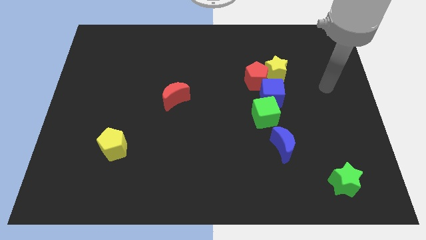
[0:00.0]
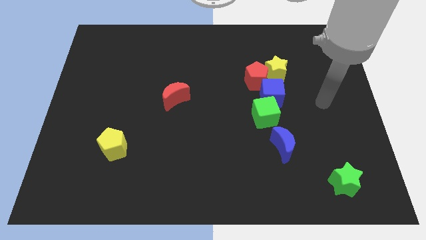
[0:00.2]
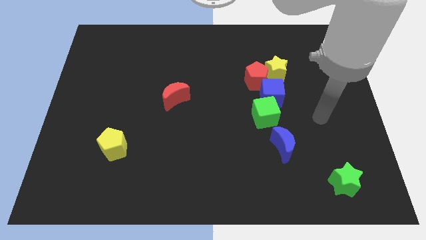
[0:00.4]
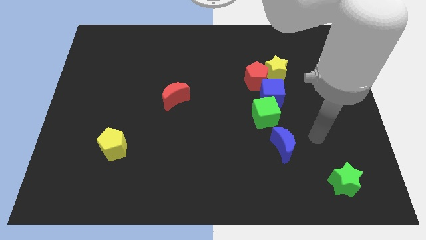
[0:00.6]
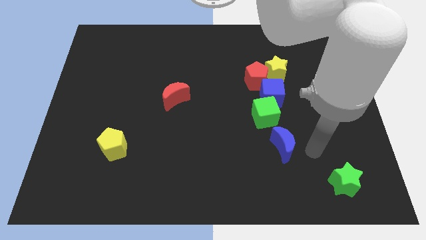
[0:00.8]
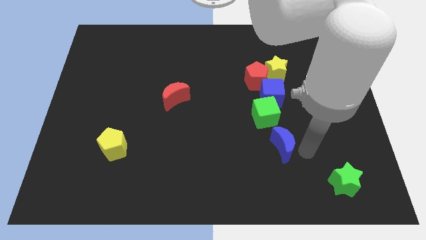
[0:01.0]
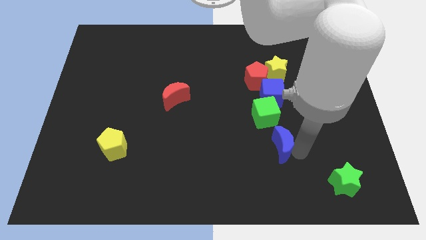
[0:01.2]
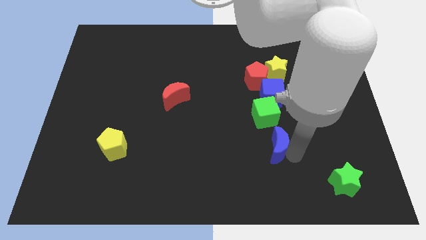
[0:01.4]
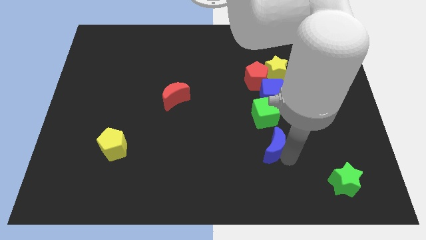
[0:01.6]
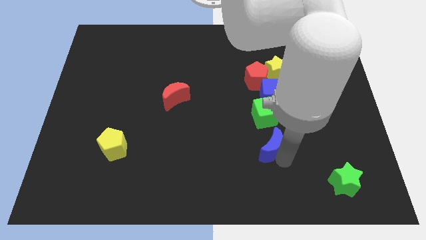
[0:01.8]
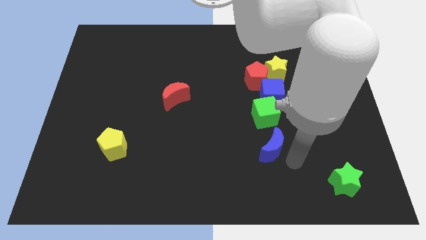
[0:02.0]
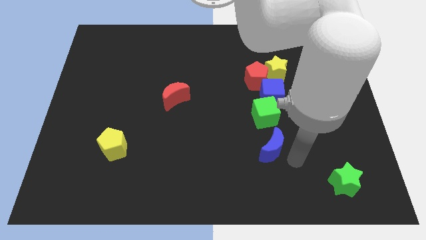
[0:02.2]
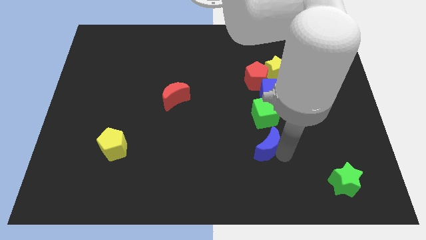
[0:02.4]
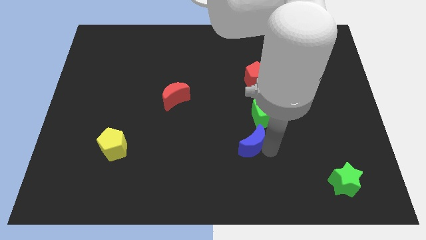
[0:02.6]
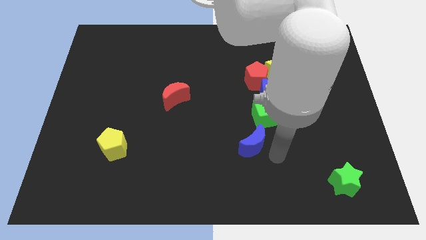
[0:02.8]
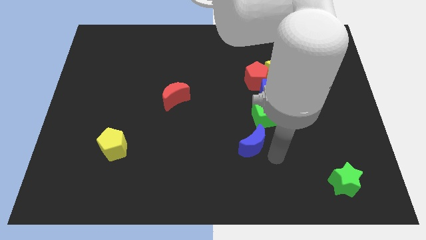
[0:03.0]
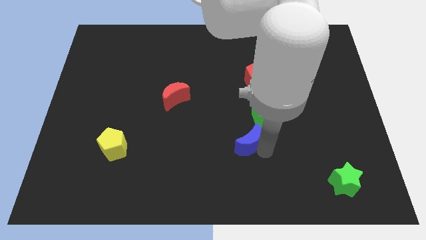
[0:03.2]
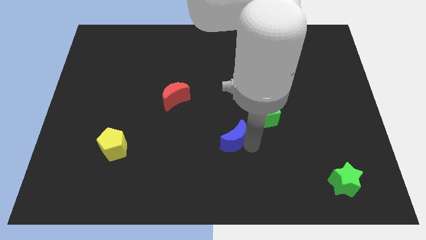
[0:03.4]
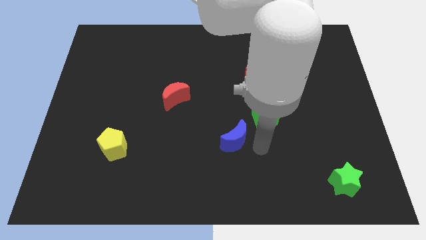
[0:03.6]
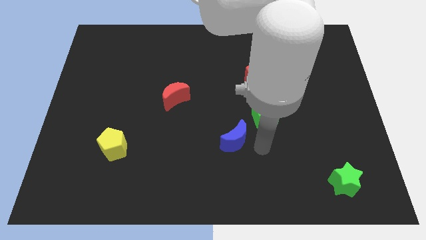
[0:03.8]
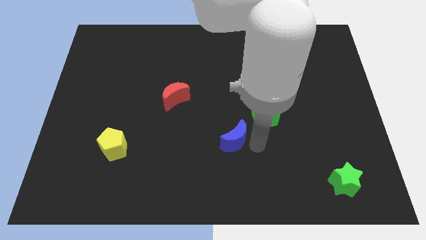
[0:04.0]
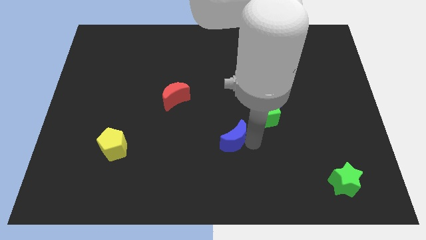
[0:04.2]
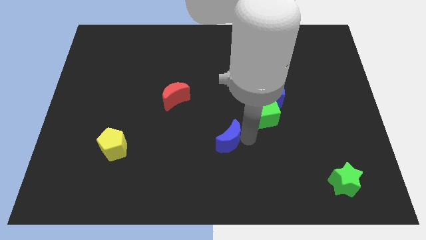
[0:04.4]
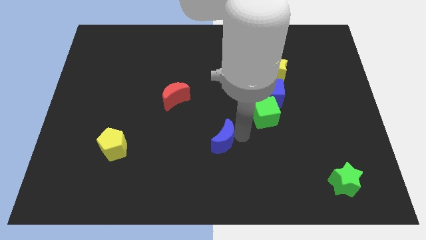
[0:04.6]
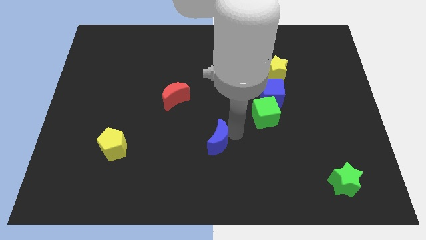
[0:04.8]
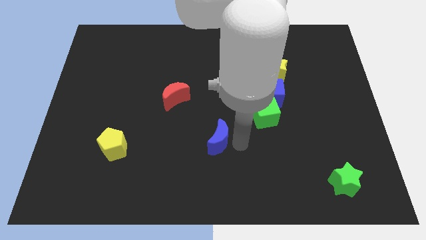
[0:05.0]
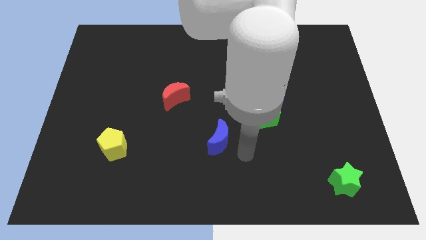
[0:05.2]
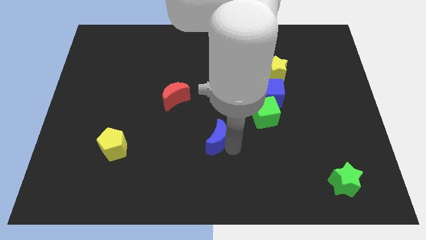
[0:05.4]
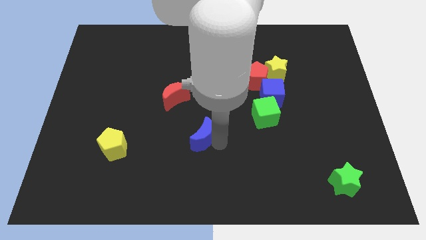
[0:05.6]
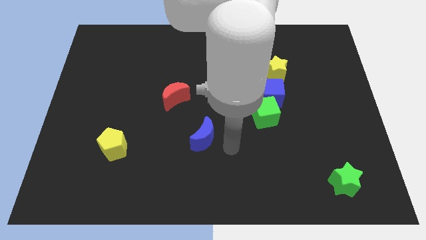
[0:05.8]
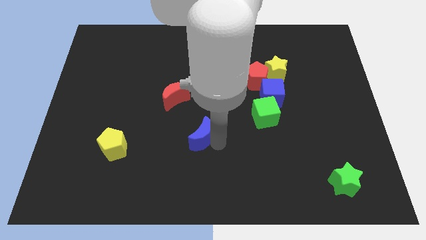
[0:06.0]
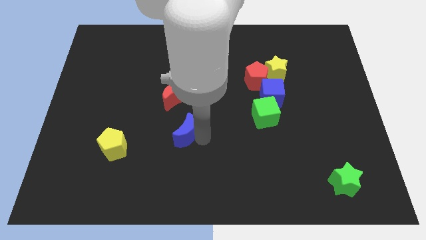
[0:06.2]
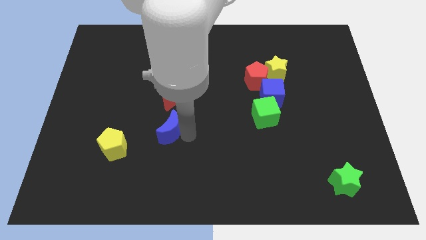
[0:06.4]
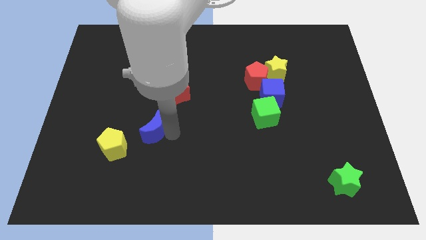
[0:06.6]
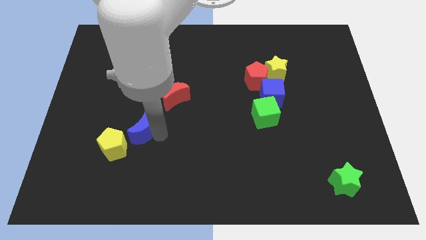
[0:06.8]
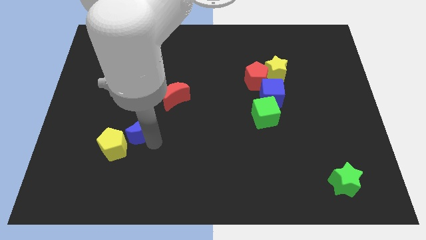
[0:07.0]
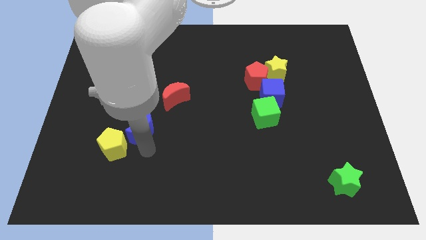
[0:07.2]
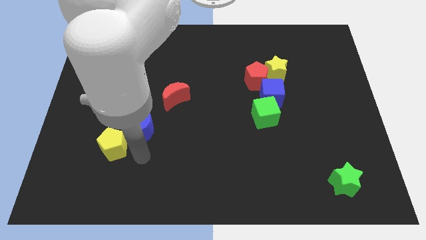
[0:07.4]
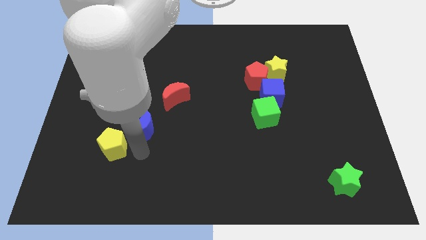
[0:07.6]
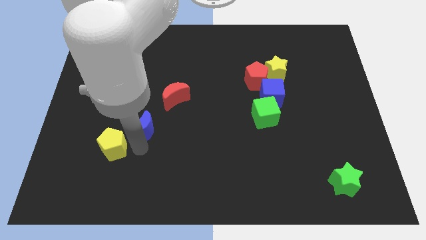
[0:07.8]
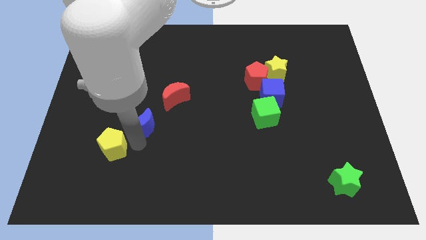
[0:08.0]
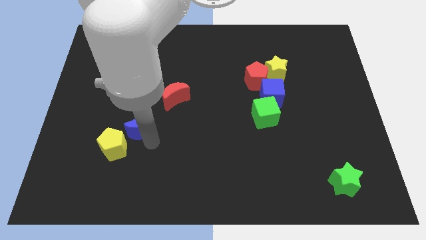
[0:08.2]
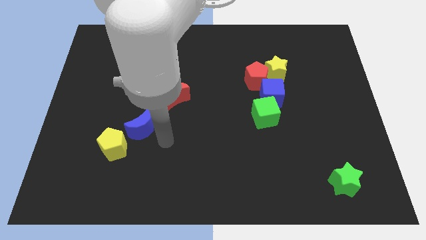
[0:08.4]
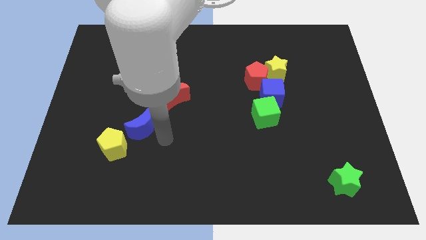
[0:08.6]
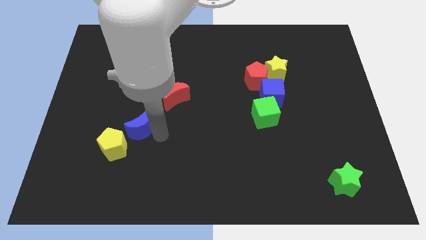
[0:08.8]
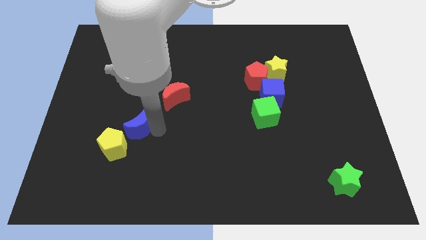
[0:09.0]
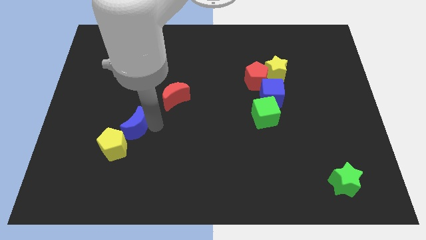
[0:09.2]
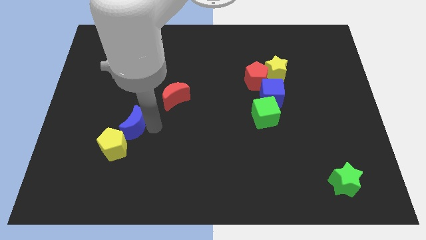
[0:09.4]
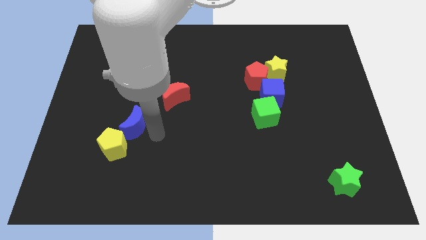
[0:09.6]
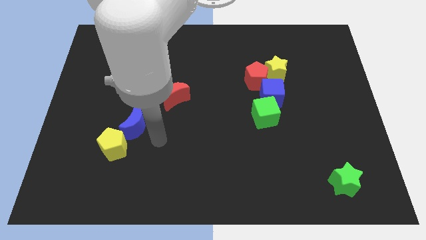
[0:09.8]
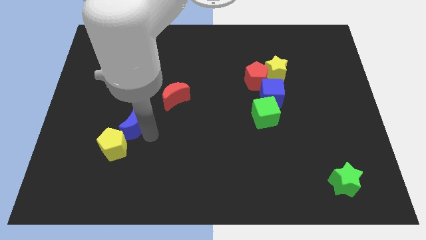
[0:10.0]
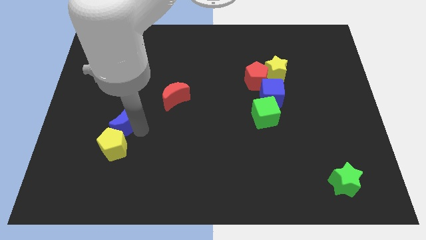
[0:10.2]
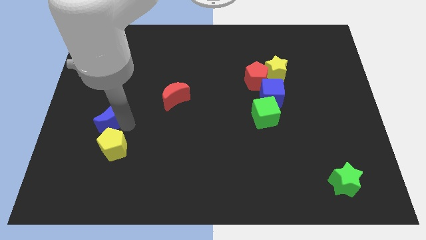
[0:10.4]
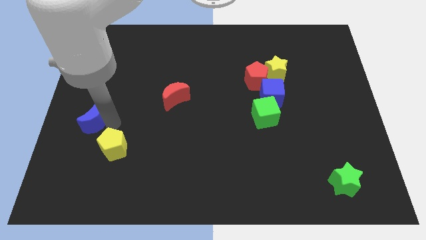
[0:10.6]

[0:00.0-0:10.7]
move the blue moon to the center left
